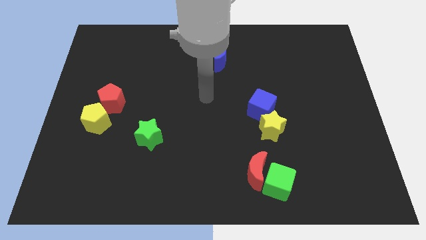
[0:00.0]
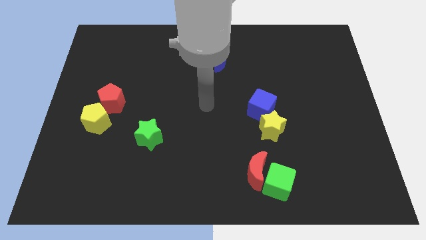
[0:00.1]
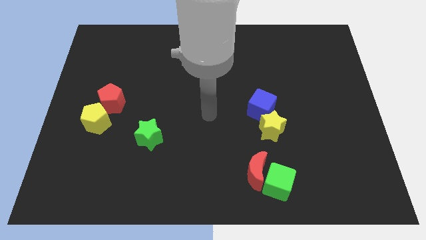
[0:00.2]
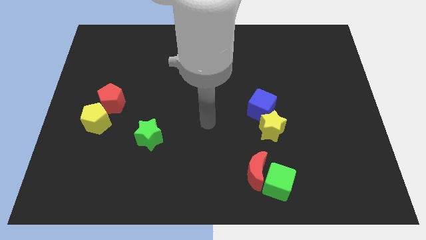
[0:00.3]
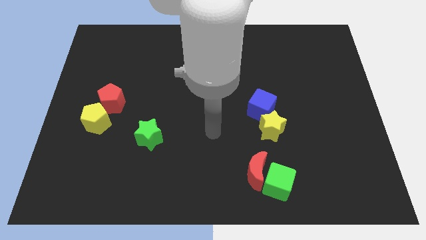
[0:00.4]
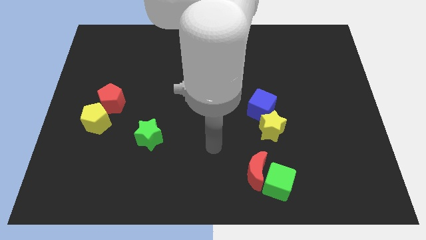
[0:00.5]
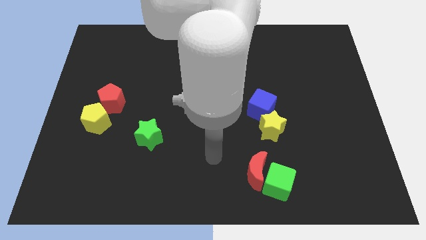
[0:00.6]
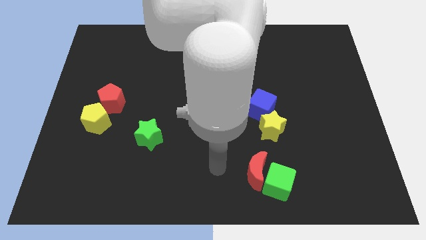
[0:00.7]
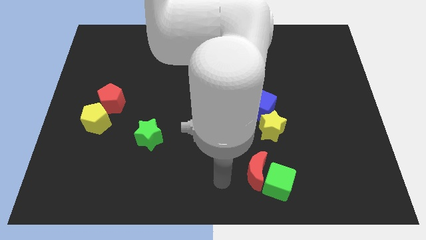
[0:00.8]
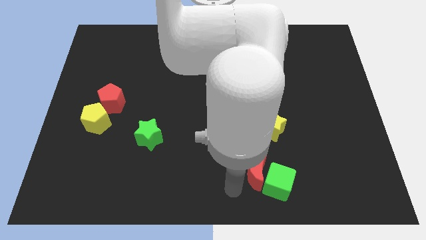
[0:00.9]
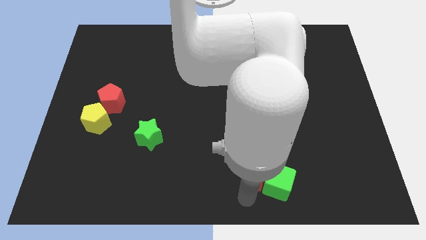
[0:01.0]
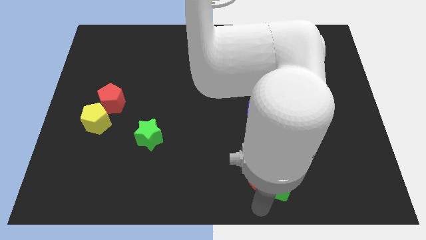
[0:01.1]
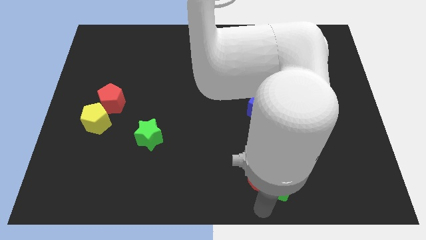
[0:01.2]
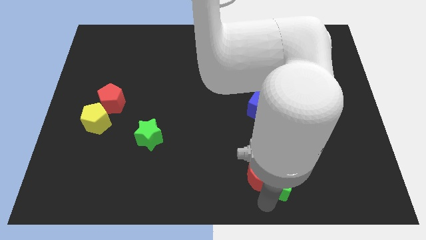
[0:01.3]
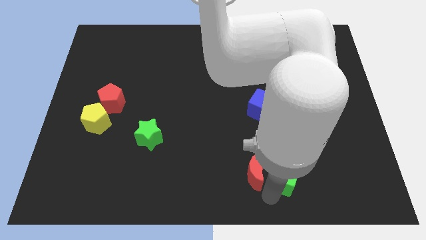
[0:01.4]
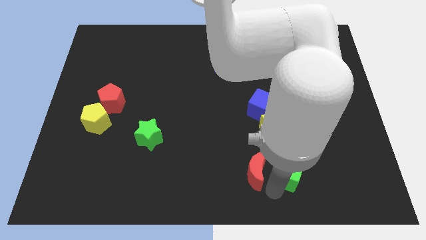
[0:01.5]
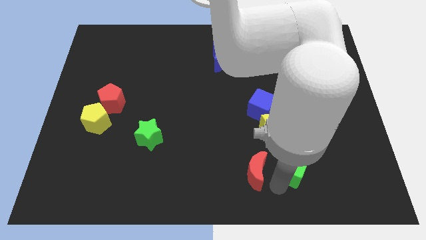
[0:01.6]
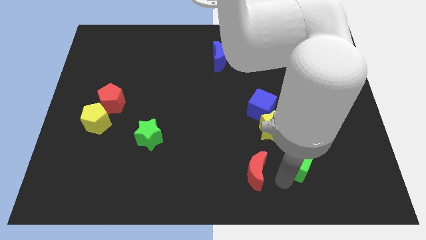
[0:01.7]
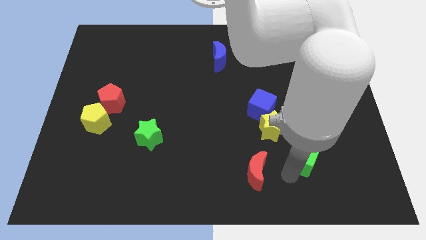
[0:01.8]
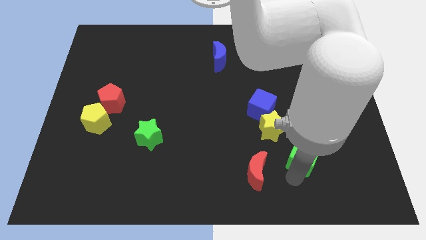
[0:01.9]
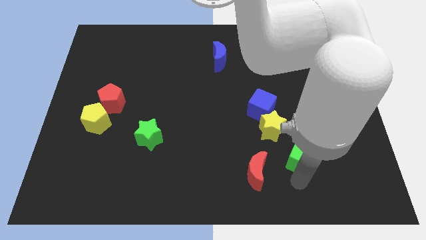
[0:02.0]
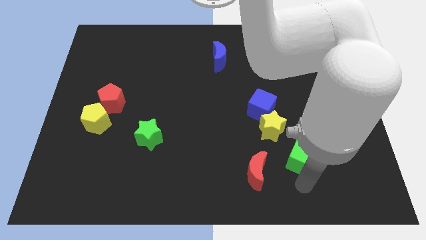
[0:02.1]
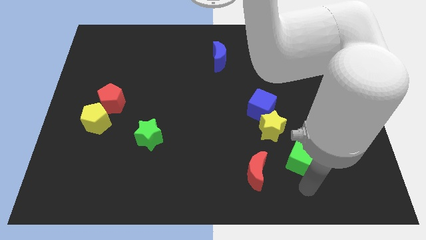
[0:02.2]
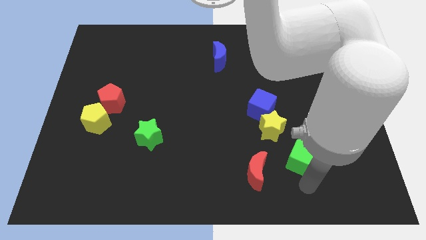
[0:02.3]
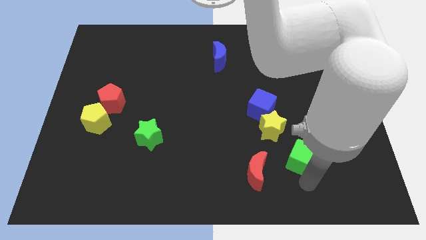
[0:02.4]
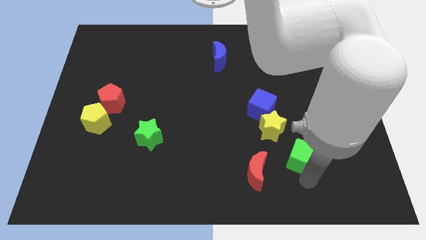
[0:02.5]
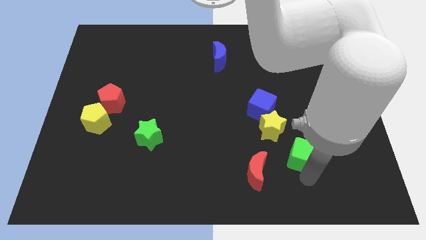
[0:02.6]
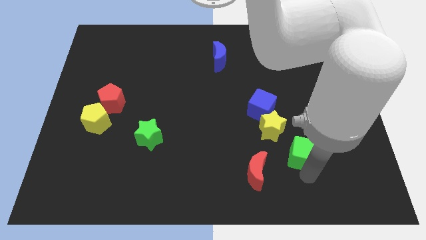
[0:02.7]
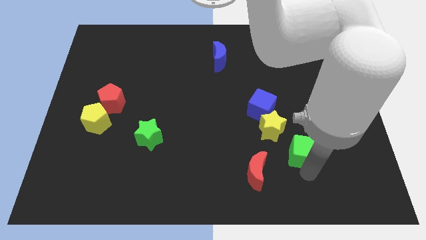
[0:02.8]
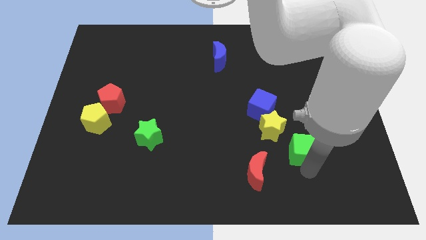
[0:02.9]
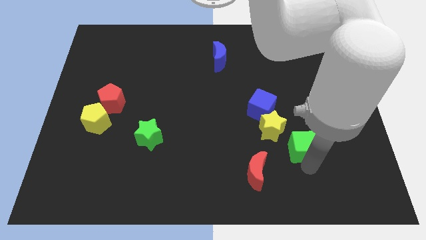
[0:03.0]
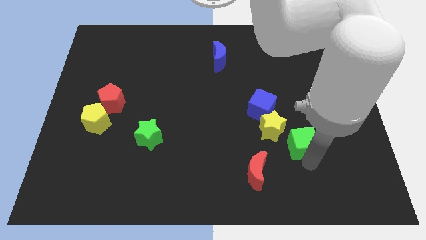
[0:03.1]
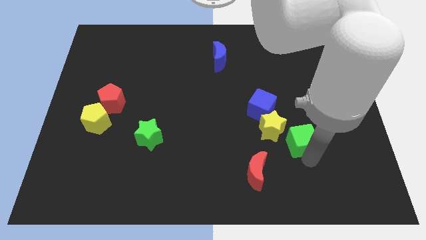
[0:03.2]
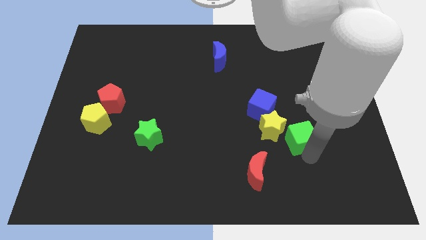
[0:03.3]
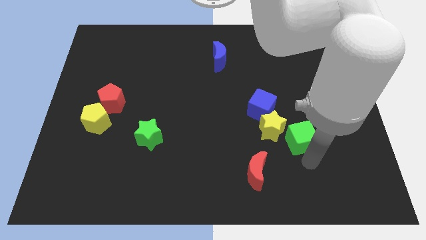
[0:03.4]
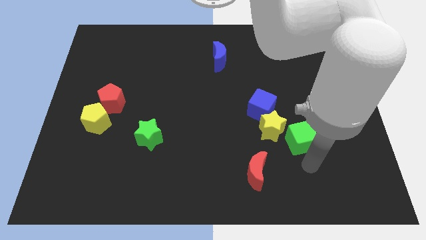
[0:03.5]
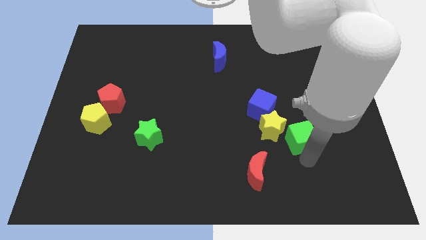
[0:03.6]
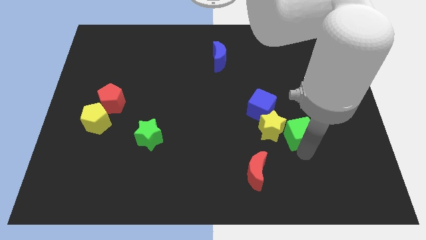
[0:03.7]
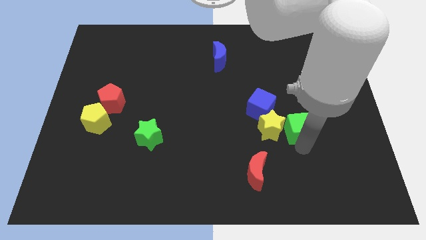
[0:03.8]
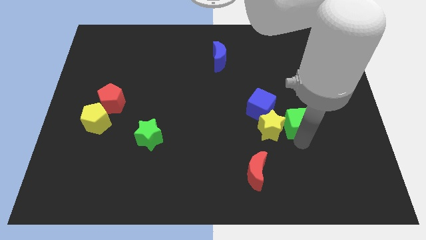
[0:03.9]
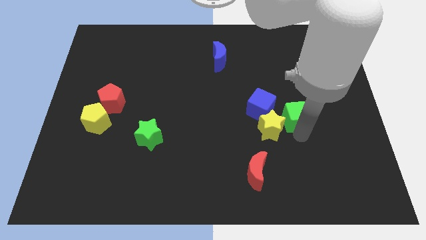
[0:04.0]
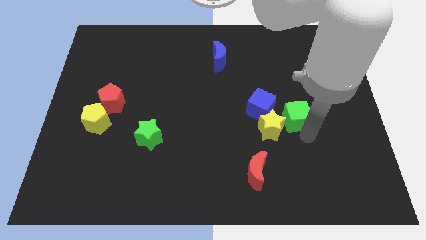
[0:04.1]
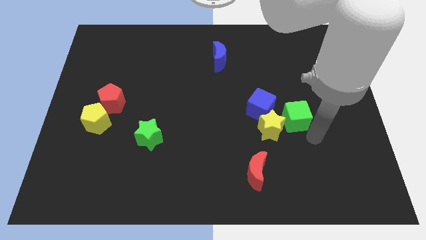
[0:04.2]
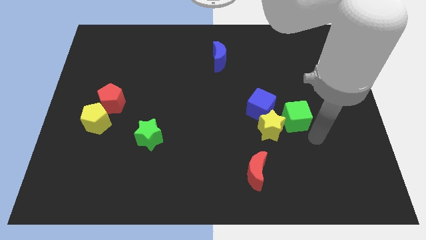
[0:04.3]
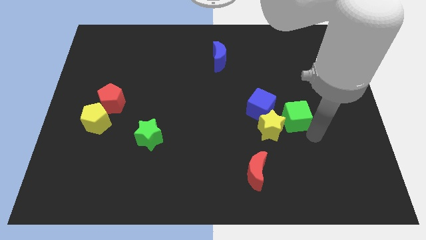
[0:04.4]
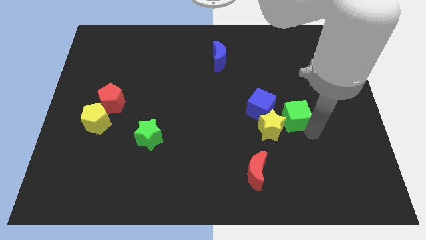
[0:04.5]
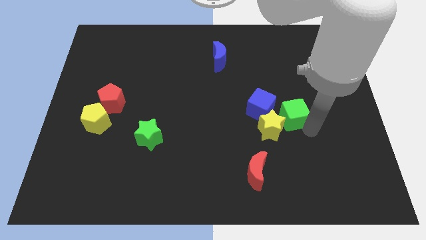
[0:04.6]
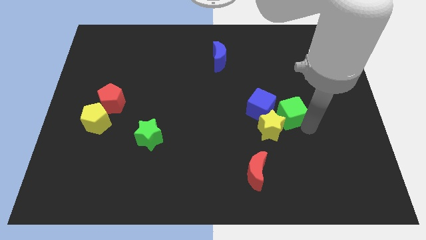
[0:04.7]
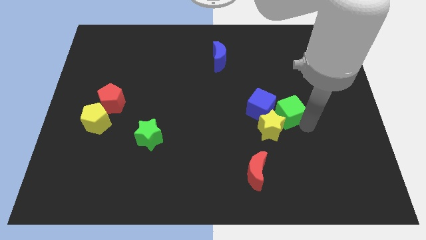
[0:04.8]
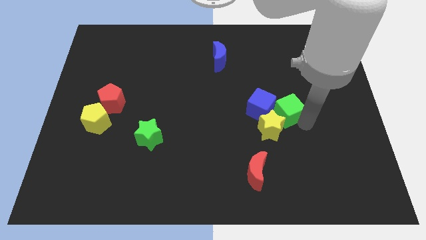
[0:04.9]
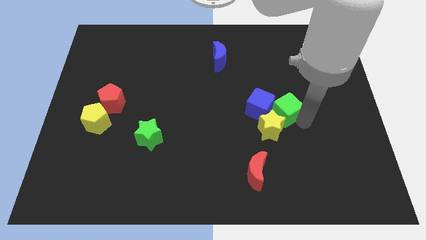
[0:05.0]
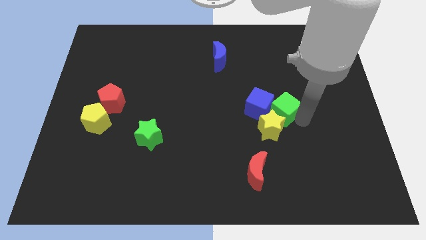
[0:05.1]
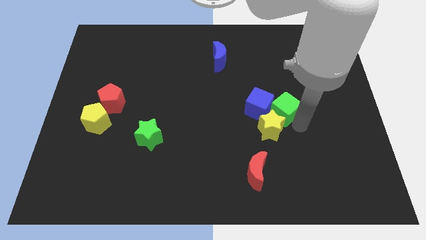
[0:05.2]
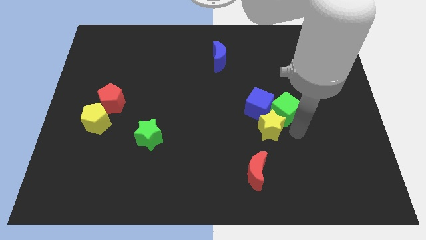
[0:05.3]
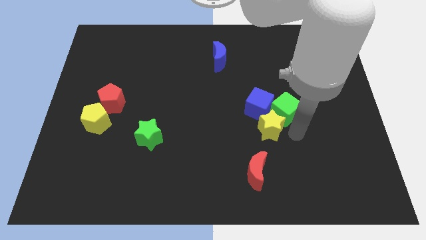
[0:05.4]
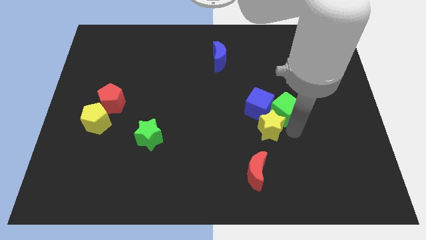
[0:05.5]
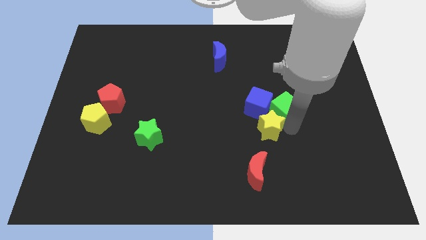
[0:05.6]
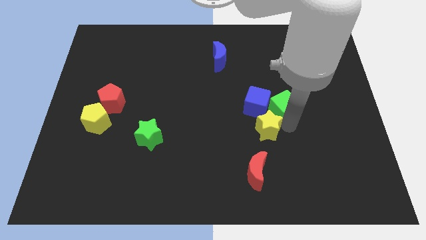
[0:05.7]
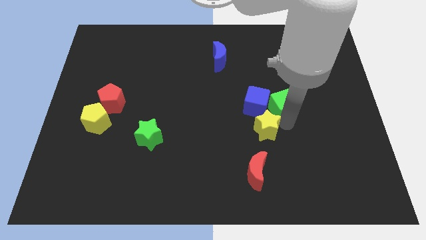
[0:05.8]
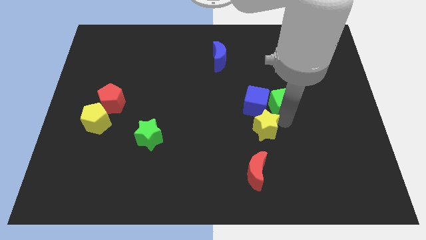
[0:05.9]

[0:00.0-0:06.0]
slide the green cube upwards

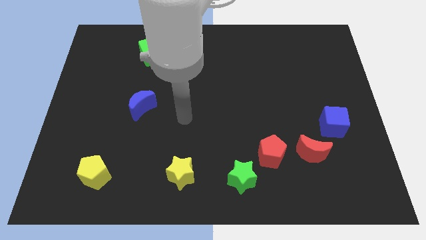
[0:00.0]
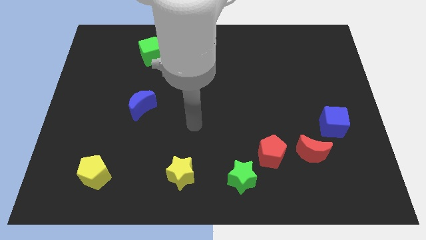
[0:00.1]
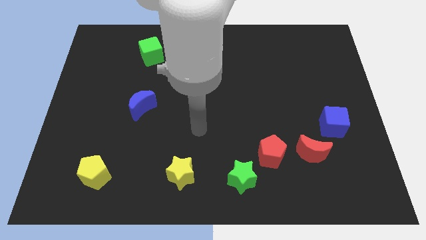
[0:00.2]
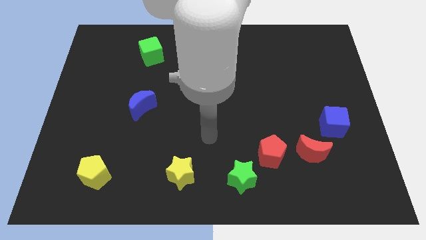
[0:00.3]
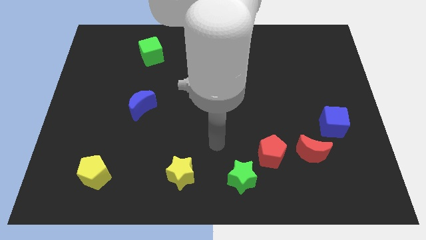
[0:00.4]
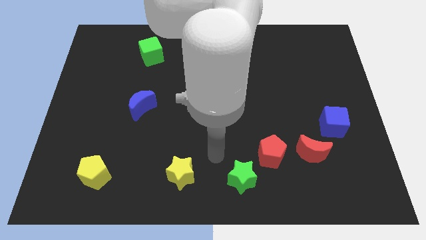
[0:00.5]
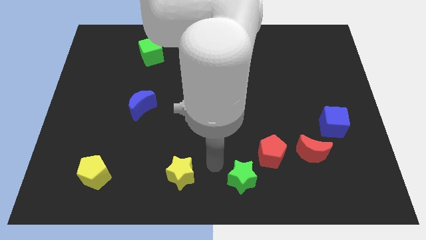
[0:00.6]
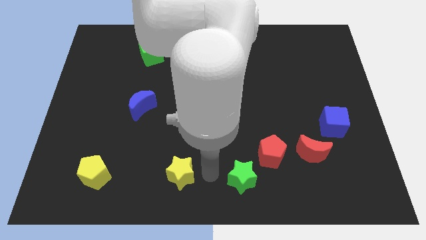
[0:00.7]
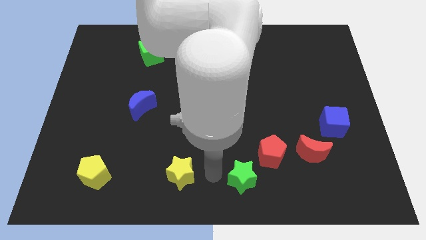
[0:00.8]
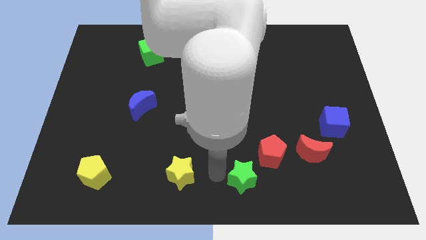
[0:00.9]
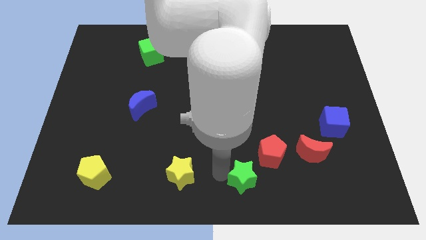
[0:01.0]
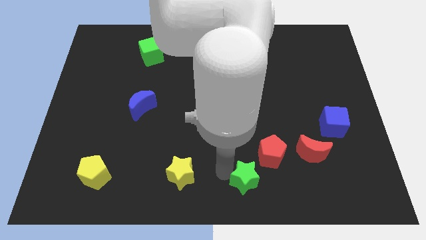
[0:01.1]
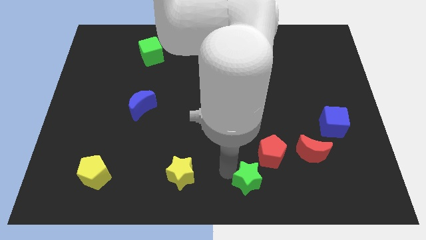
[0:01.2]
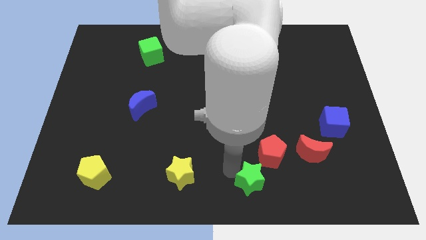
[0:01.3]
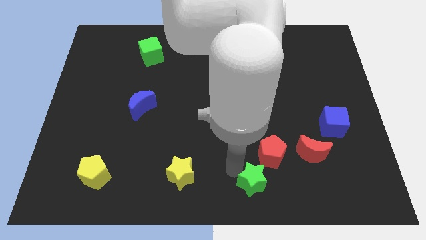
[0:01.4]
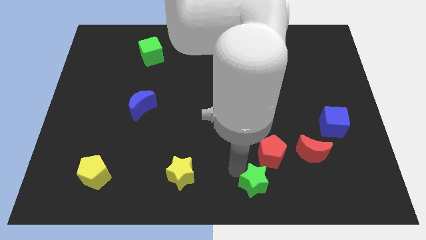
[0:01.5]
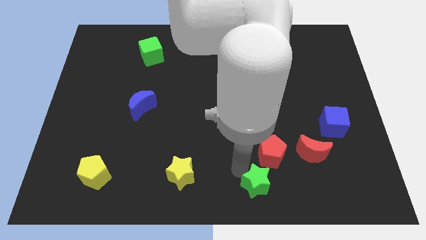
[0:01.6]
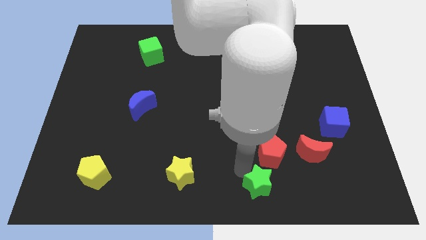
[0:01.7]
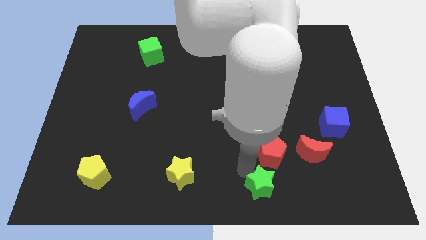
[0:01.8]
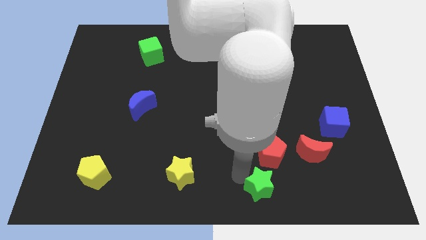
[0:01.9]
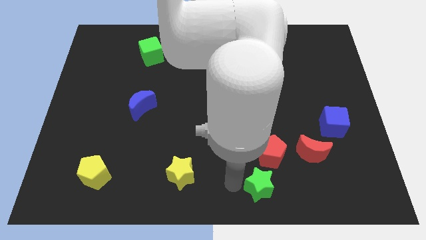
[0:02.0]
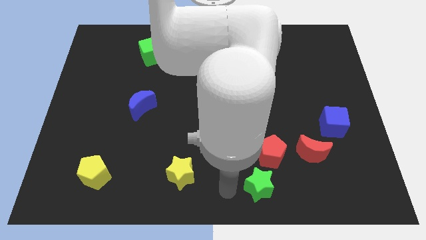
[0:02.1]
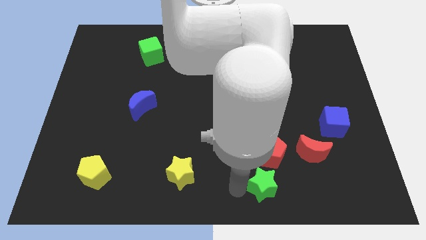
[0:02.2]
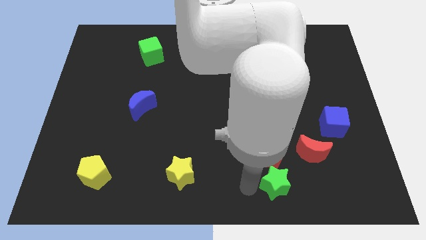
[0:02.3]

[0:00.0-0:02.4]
push the green star a bit right
